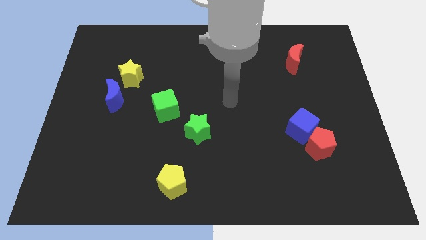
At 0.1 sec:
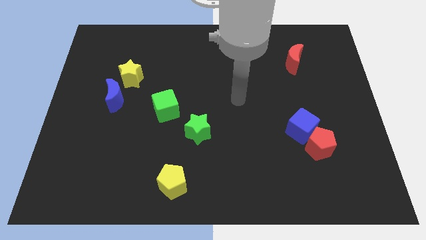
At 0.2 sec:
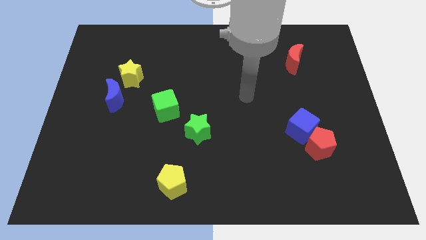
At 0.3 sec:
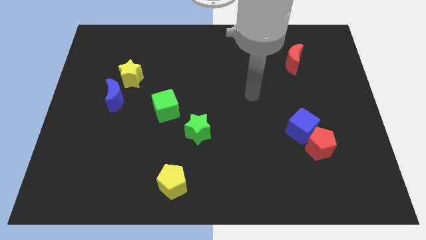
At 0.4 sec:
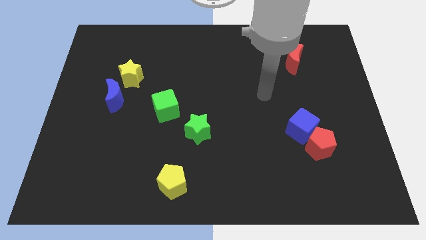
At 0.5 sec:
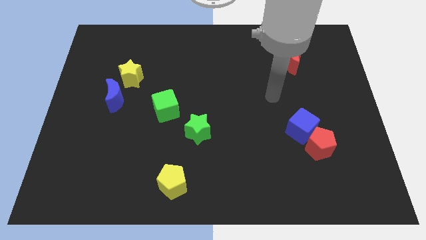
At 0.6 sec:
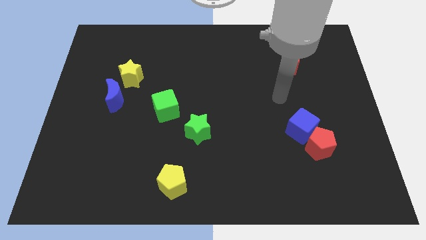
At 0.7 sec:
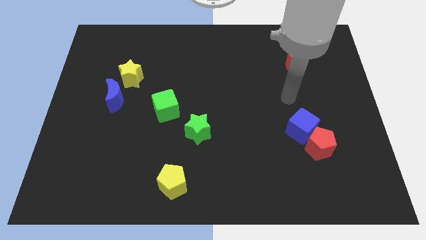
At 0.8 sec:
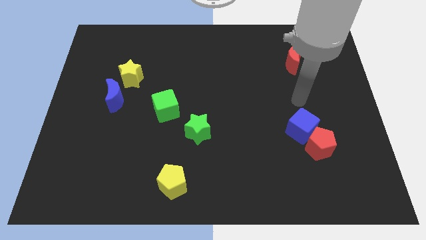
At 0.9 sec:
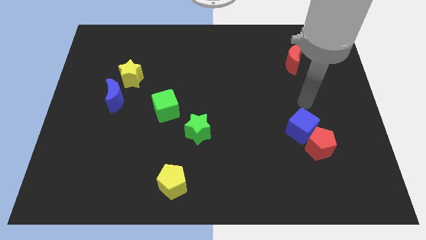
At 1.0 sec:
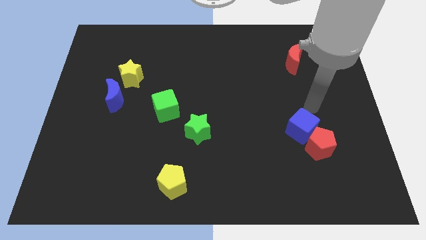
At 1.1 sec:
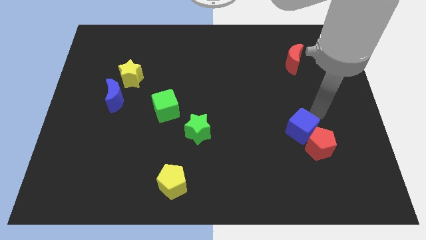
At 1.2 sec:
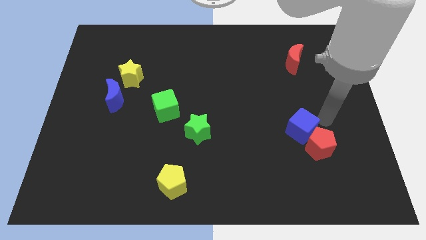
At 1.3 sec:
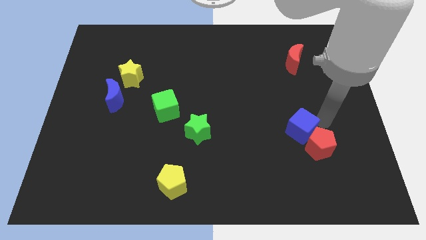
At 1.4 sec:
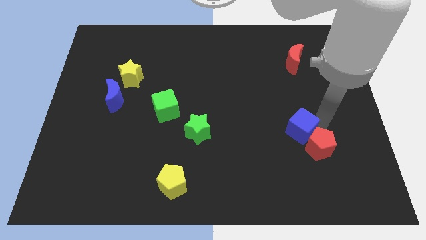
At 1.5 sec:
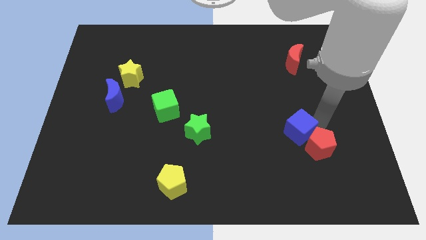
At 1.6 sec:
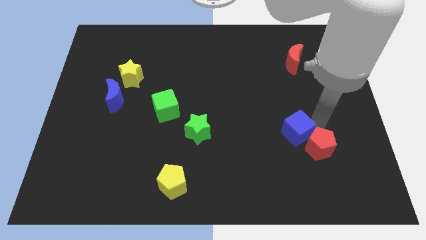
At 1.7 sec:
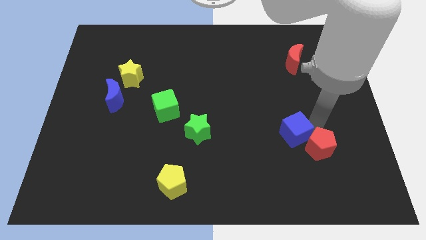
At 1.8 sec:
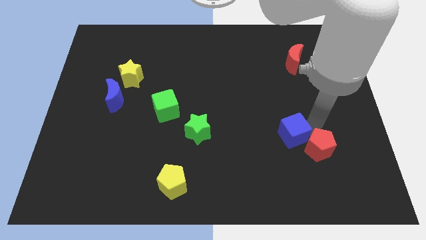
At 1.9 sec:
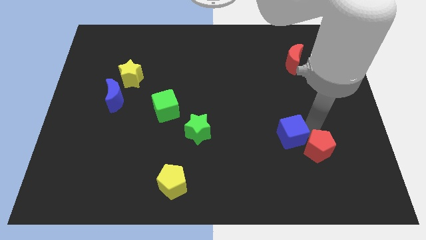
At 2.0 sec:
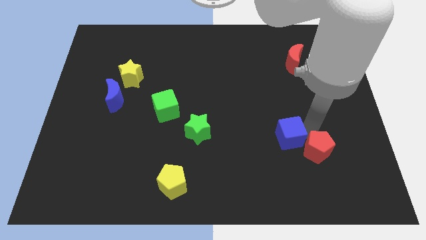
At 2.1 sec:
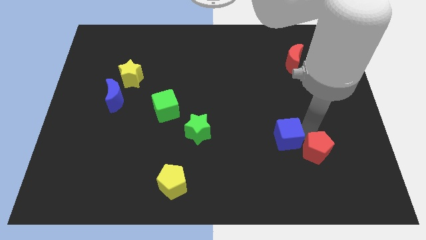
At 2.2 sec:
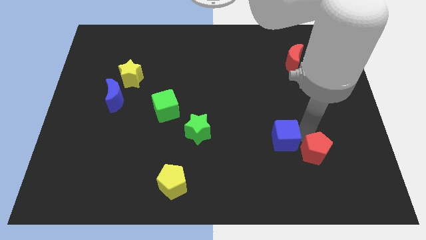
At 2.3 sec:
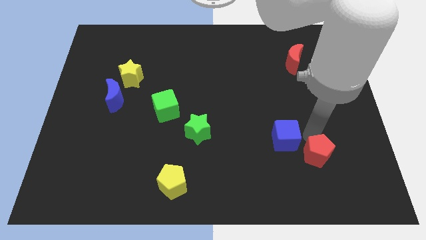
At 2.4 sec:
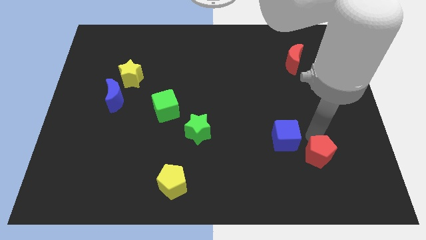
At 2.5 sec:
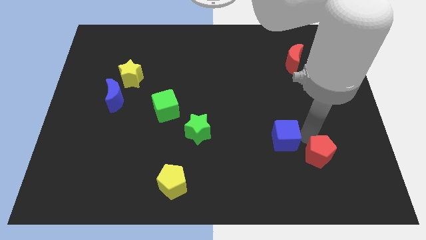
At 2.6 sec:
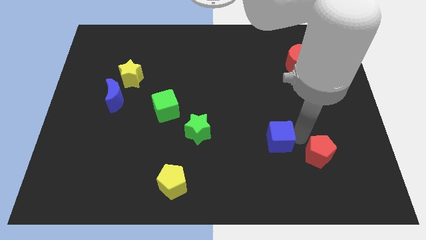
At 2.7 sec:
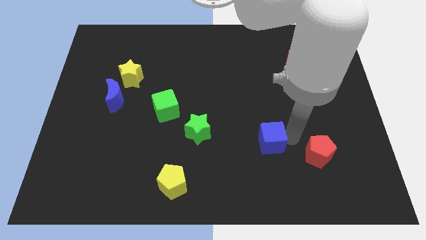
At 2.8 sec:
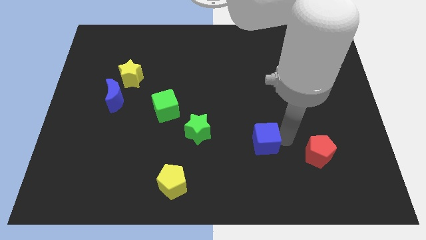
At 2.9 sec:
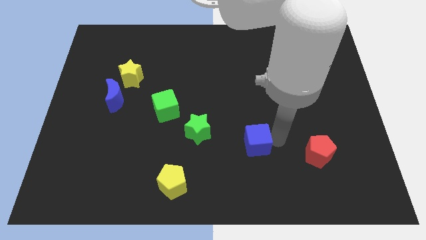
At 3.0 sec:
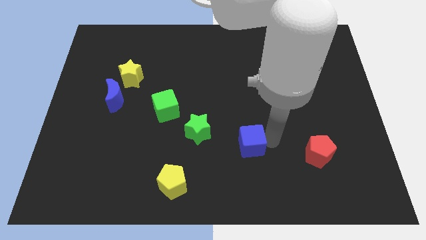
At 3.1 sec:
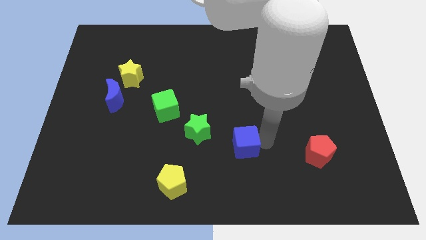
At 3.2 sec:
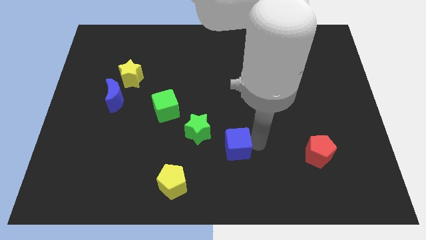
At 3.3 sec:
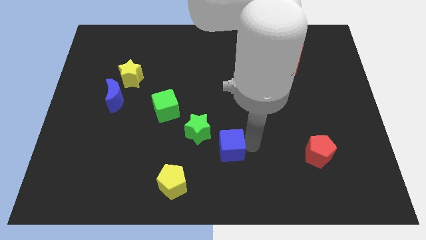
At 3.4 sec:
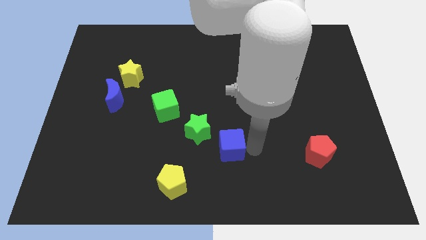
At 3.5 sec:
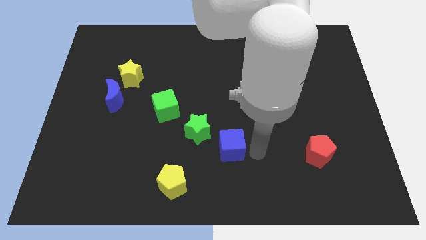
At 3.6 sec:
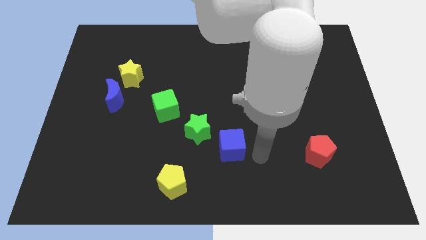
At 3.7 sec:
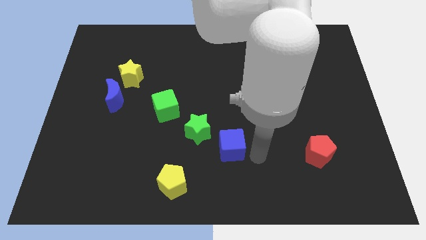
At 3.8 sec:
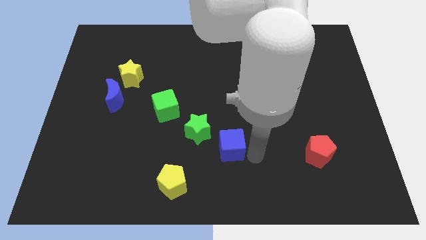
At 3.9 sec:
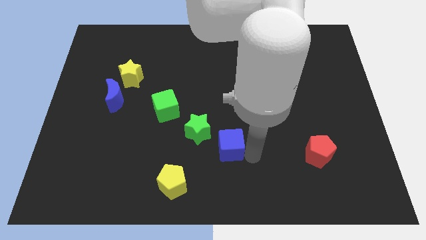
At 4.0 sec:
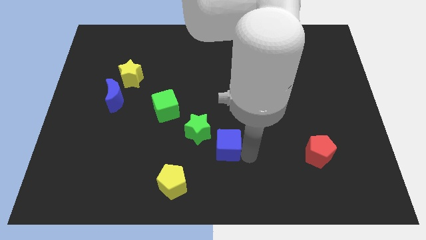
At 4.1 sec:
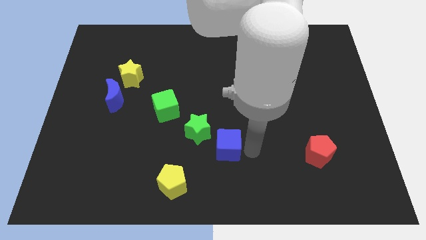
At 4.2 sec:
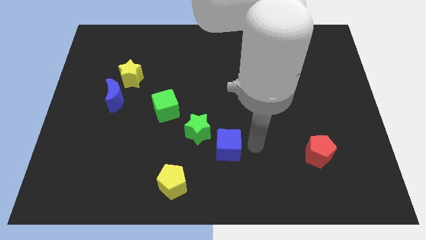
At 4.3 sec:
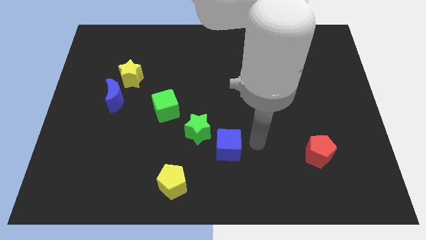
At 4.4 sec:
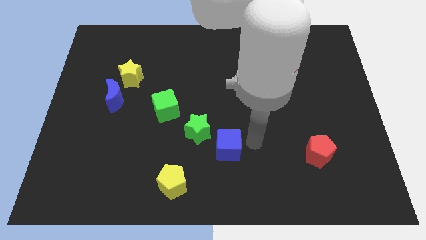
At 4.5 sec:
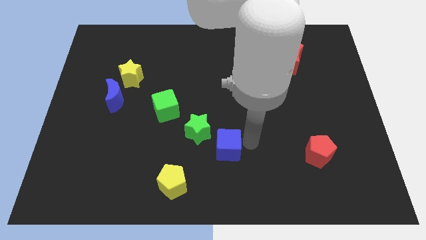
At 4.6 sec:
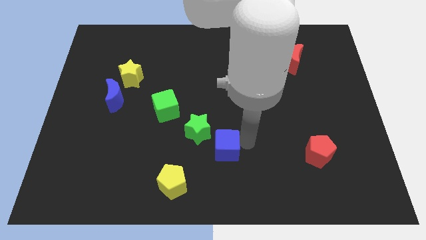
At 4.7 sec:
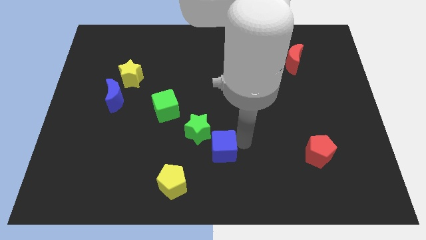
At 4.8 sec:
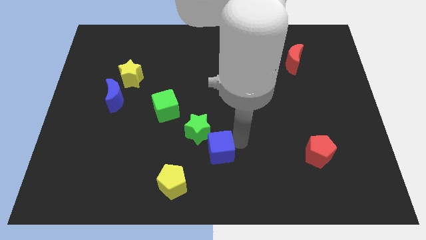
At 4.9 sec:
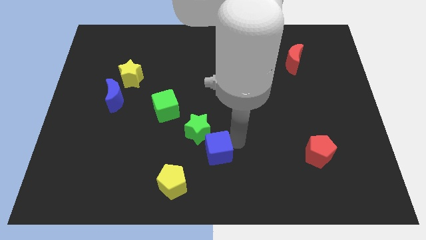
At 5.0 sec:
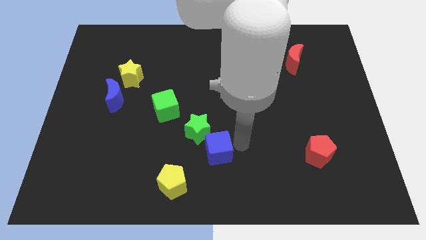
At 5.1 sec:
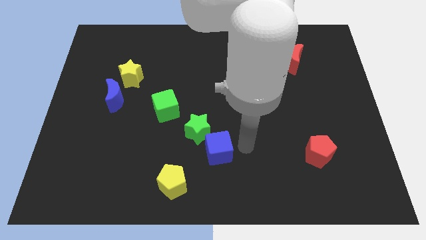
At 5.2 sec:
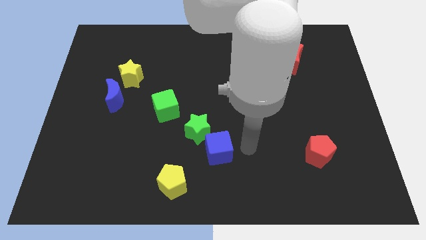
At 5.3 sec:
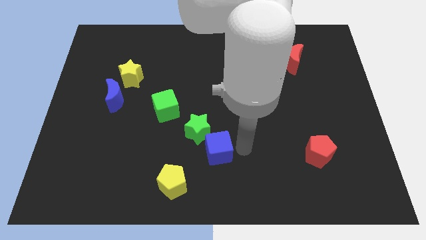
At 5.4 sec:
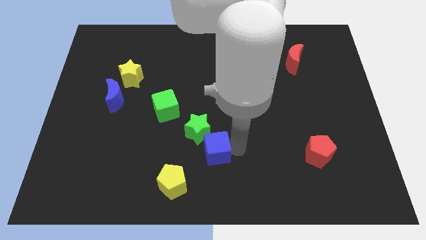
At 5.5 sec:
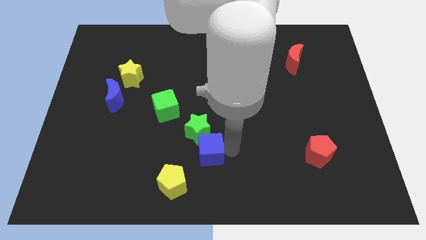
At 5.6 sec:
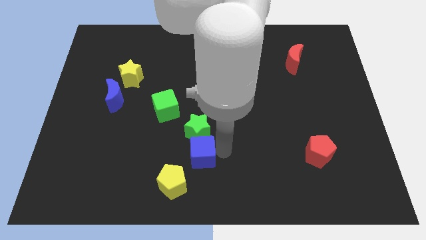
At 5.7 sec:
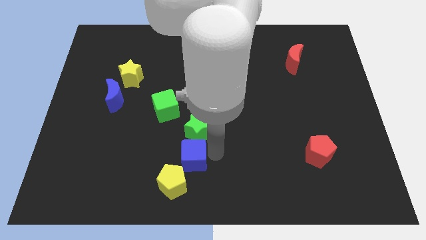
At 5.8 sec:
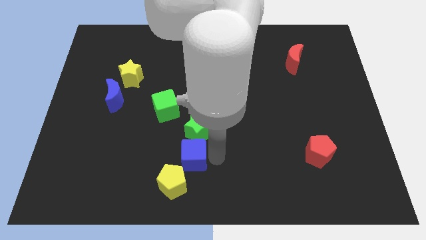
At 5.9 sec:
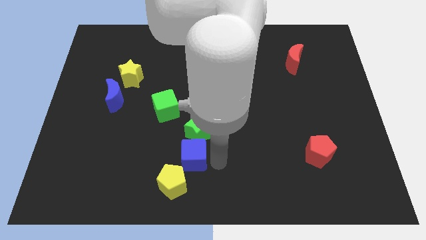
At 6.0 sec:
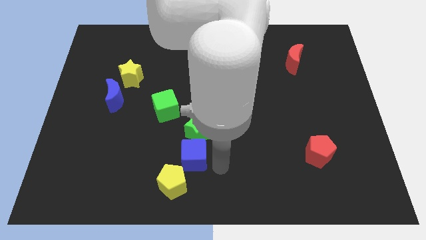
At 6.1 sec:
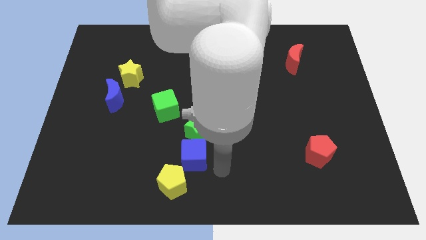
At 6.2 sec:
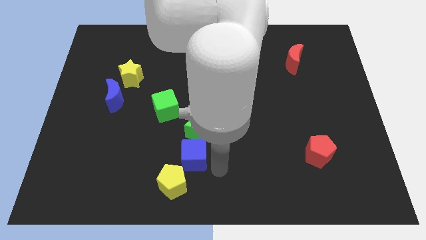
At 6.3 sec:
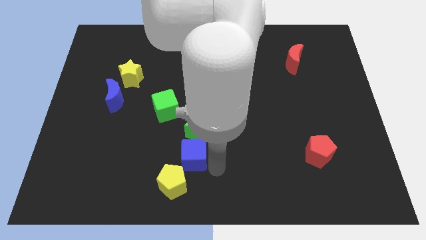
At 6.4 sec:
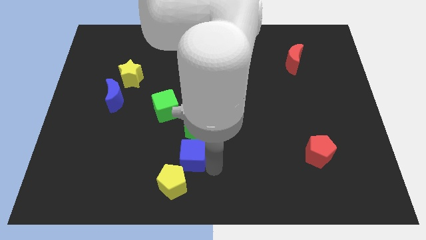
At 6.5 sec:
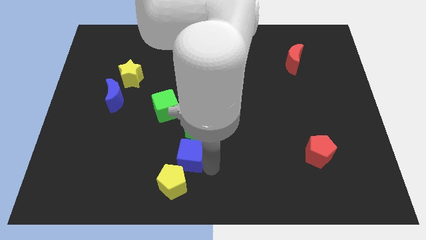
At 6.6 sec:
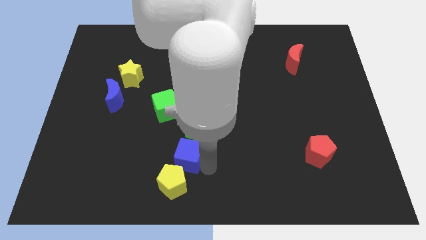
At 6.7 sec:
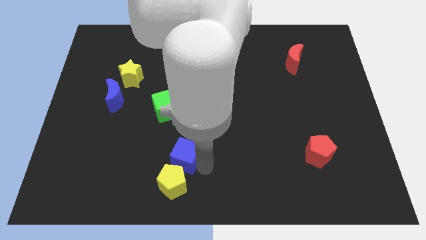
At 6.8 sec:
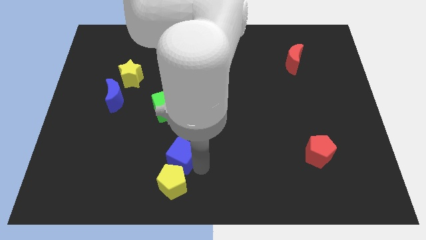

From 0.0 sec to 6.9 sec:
put the blue cube to the bottom side of the green cube
